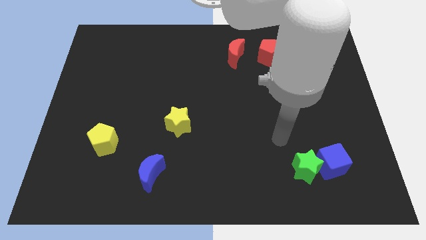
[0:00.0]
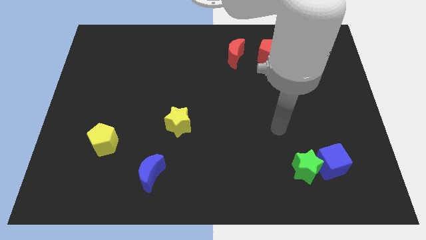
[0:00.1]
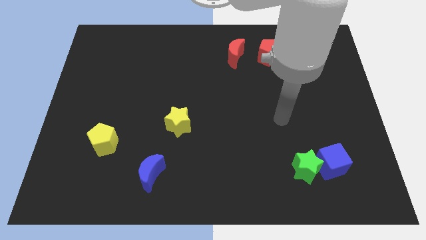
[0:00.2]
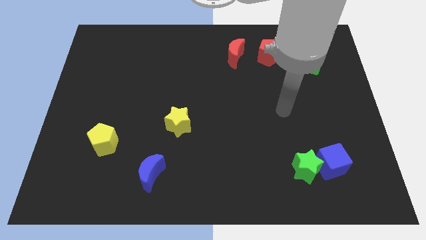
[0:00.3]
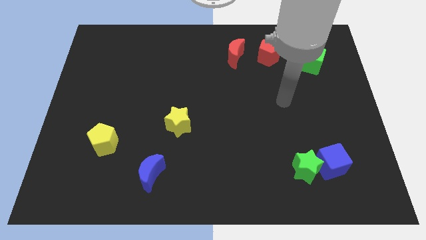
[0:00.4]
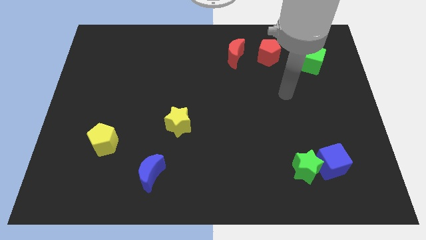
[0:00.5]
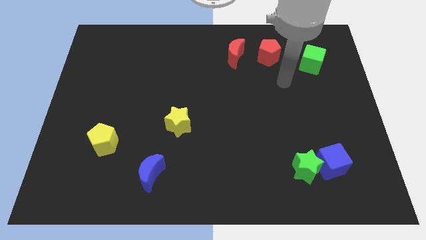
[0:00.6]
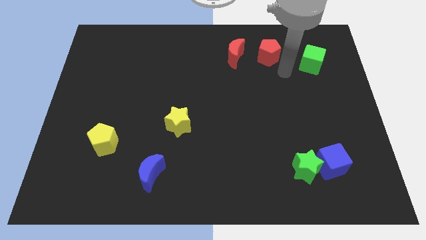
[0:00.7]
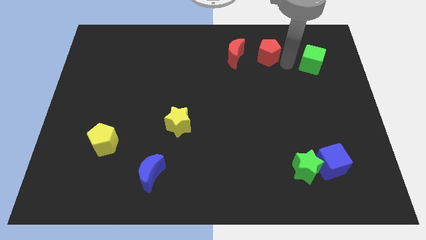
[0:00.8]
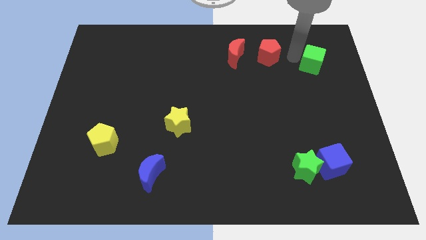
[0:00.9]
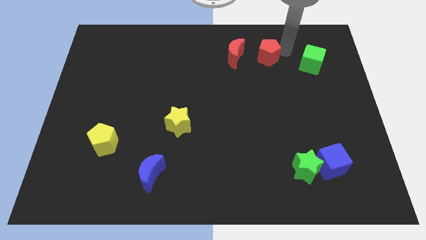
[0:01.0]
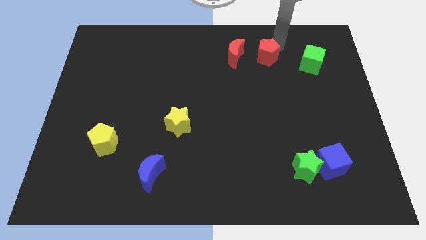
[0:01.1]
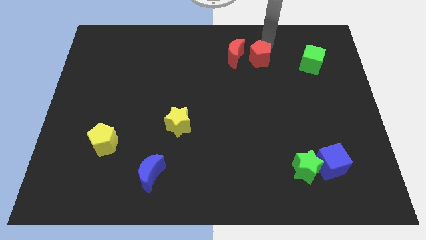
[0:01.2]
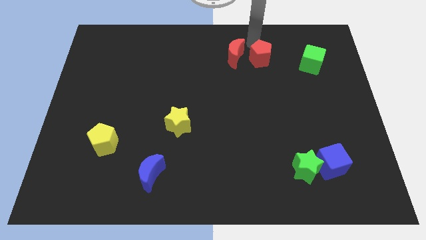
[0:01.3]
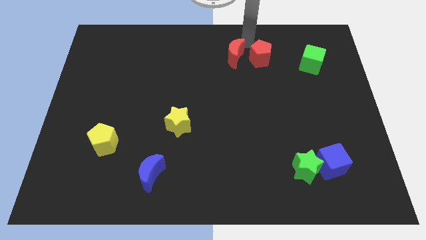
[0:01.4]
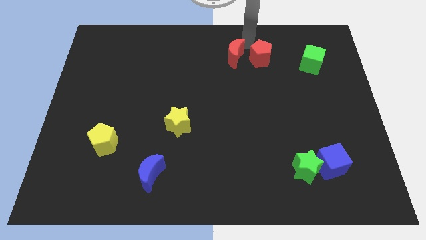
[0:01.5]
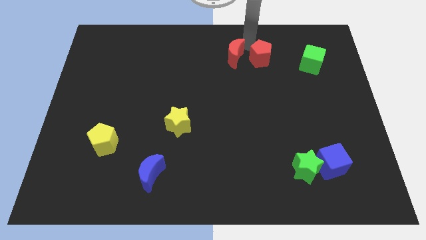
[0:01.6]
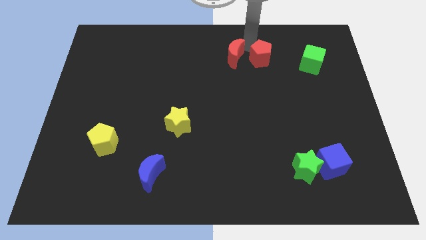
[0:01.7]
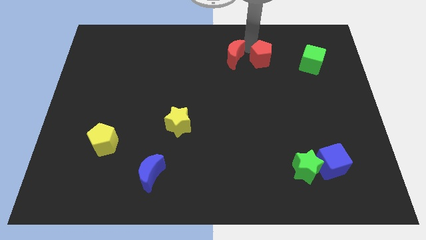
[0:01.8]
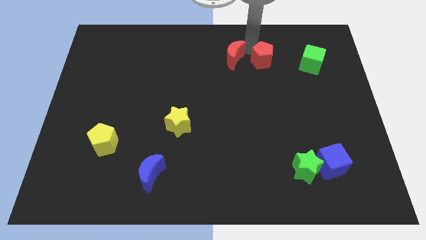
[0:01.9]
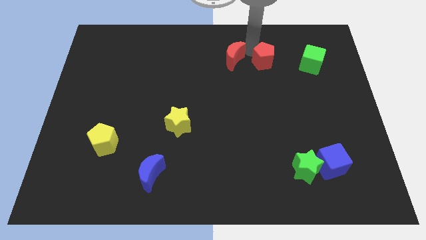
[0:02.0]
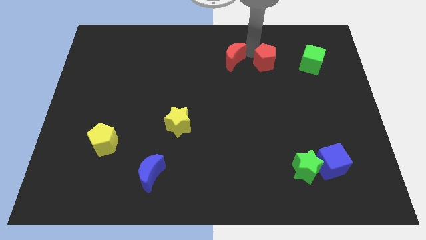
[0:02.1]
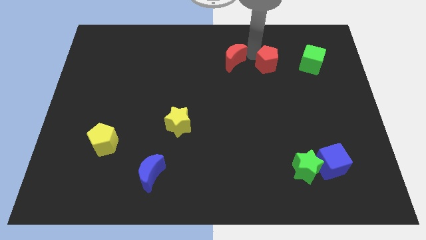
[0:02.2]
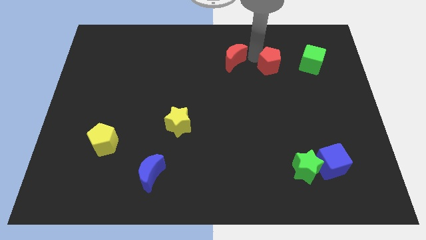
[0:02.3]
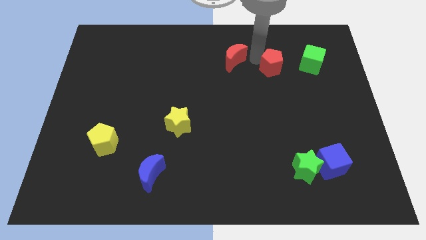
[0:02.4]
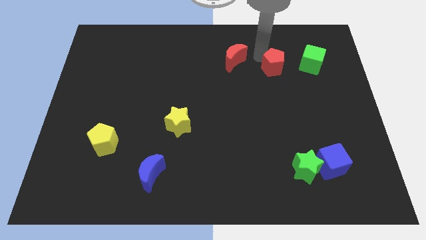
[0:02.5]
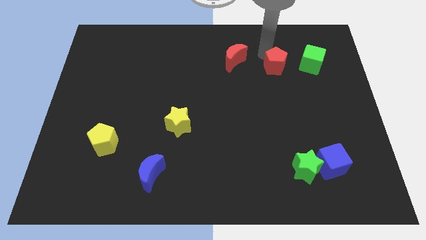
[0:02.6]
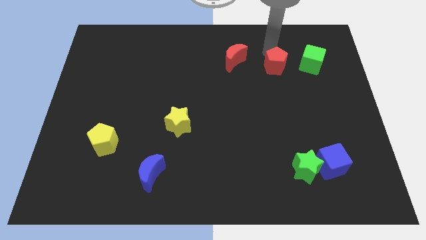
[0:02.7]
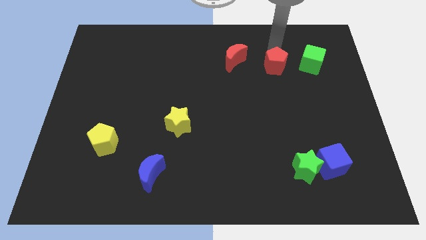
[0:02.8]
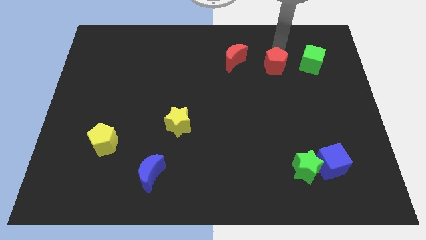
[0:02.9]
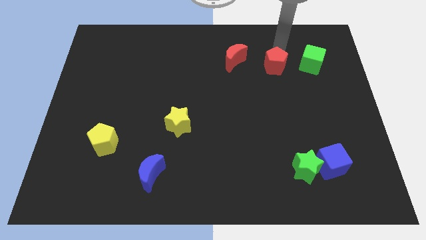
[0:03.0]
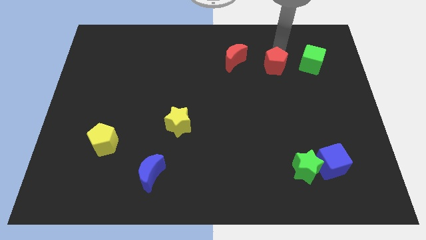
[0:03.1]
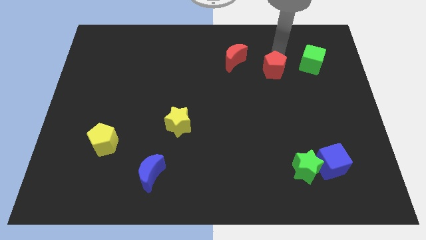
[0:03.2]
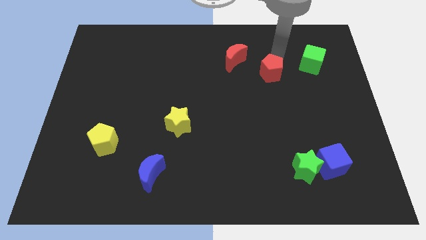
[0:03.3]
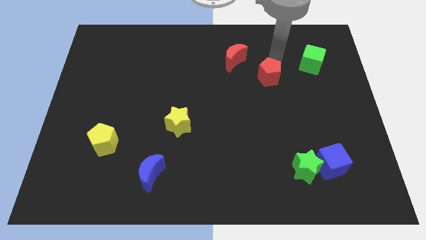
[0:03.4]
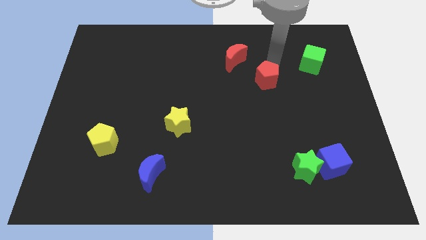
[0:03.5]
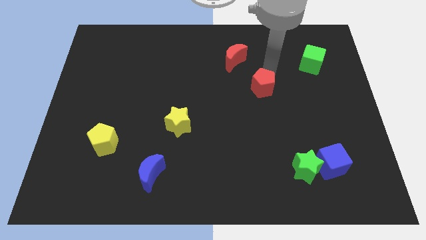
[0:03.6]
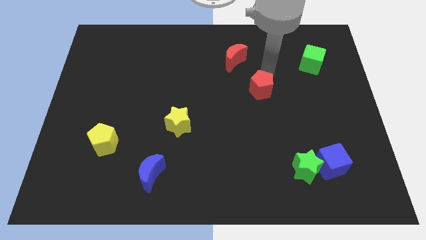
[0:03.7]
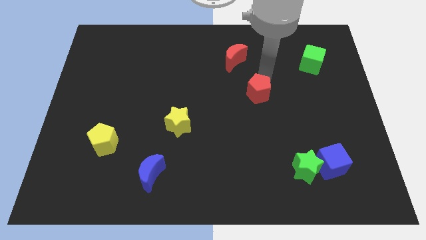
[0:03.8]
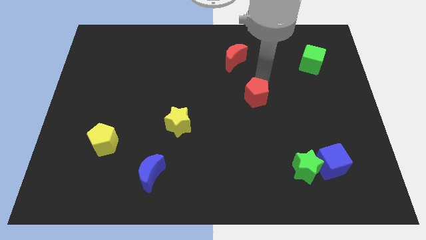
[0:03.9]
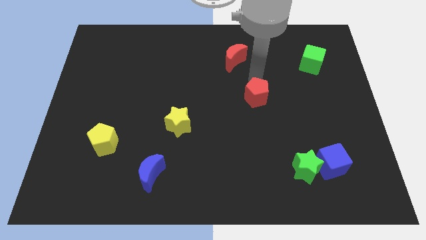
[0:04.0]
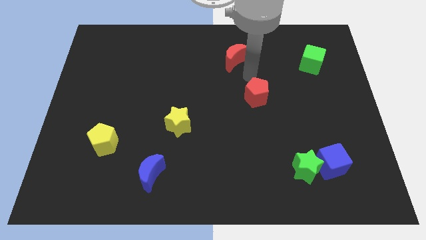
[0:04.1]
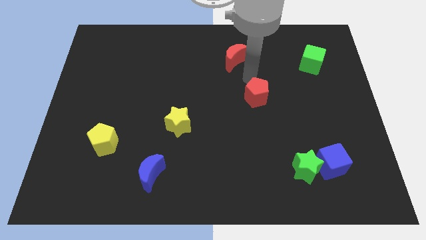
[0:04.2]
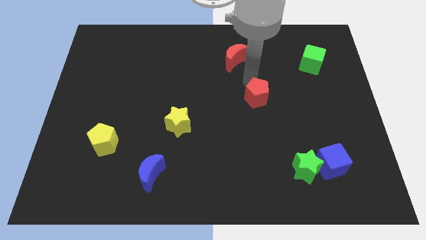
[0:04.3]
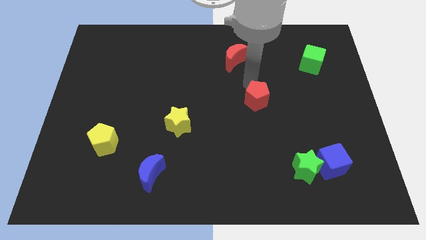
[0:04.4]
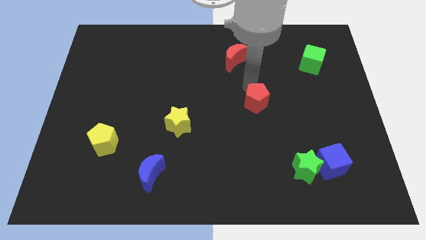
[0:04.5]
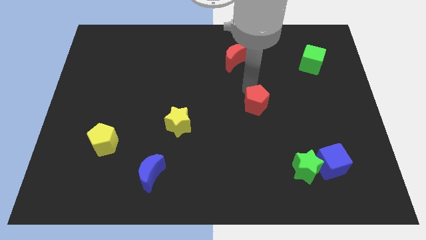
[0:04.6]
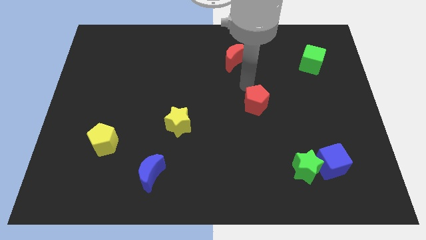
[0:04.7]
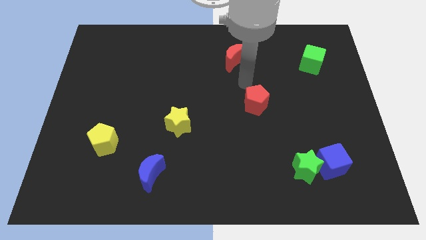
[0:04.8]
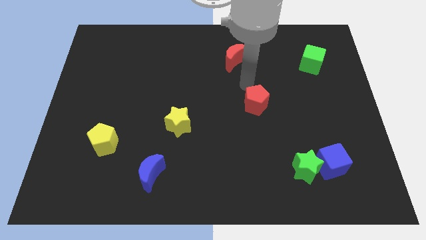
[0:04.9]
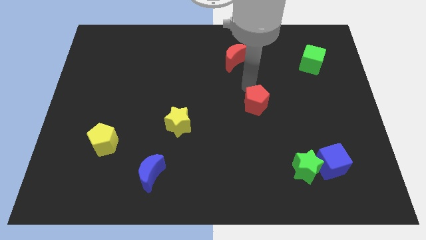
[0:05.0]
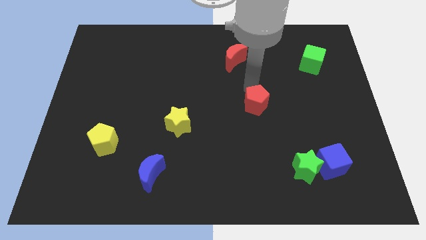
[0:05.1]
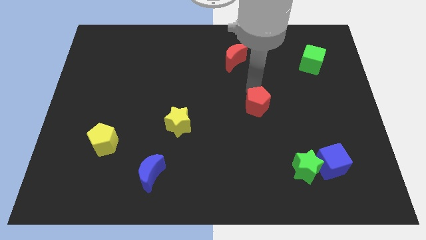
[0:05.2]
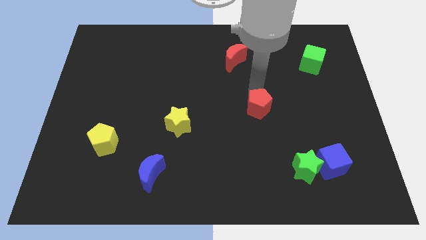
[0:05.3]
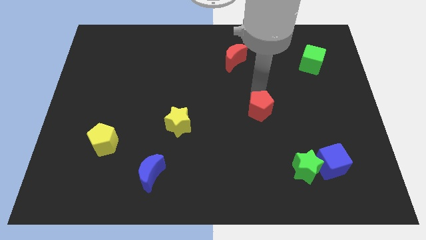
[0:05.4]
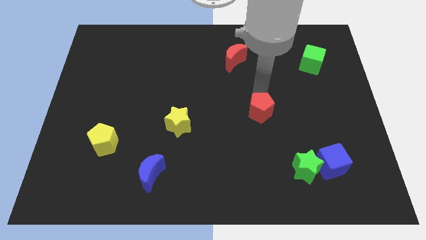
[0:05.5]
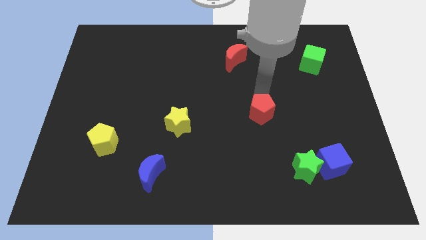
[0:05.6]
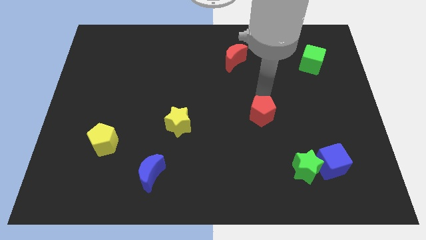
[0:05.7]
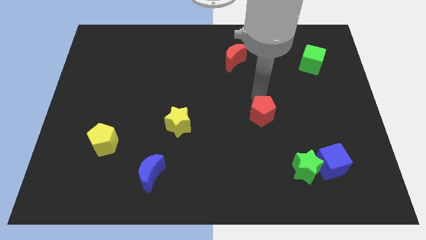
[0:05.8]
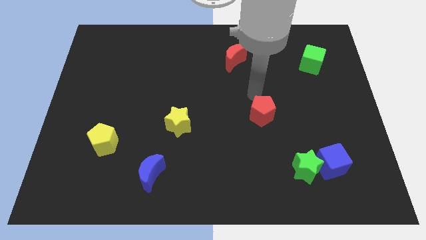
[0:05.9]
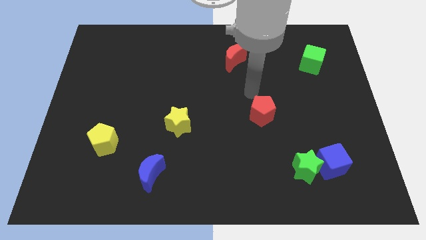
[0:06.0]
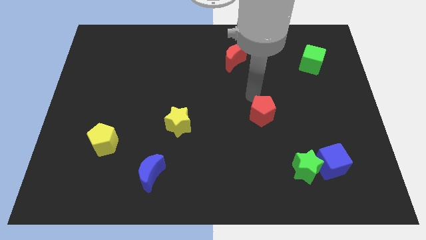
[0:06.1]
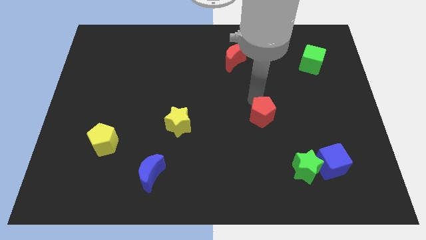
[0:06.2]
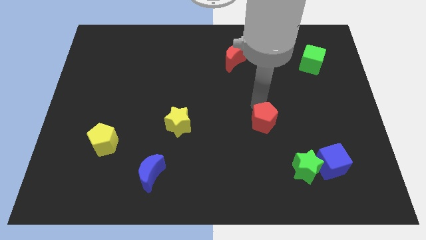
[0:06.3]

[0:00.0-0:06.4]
slide the red pentagon downwards

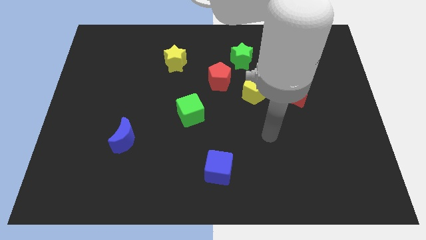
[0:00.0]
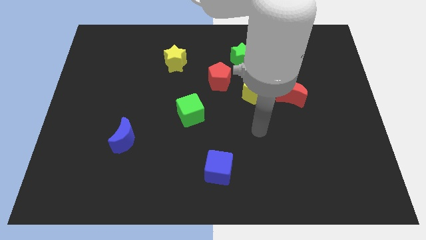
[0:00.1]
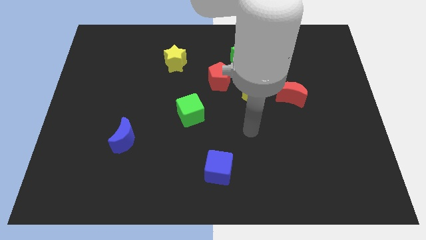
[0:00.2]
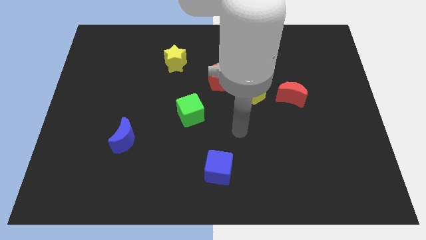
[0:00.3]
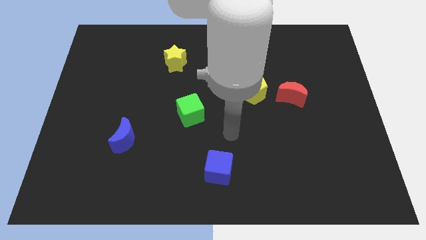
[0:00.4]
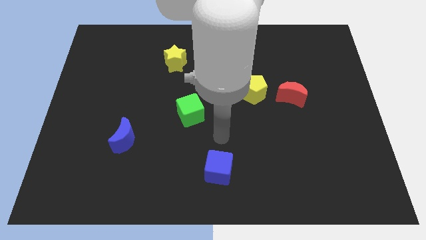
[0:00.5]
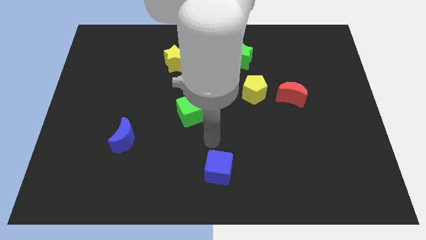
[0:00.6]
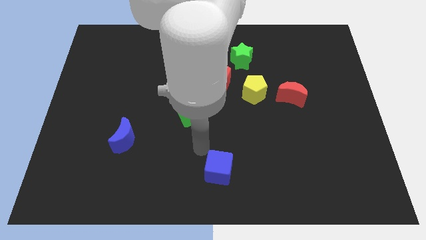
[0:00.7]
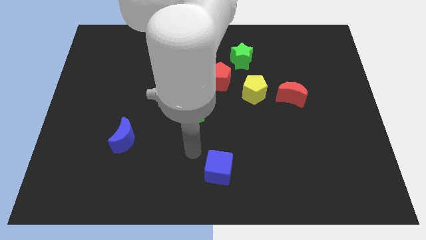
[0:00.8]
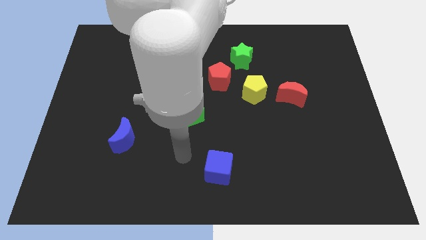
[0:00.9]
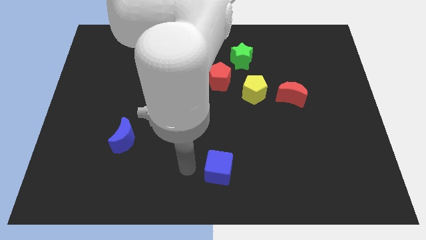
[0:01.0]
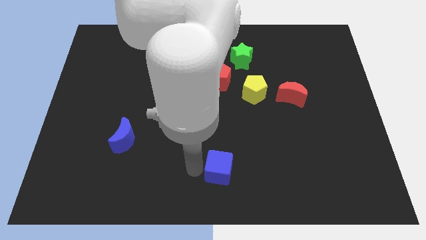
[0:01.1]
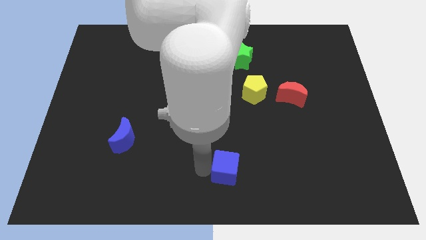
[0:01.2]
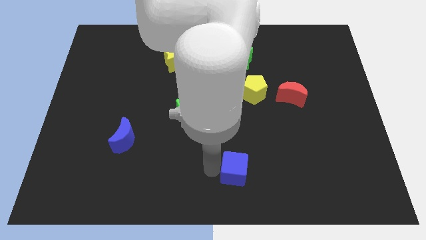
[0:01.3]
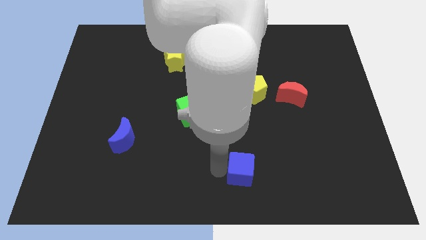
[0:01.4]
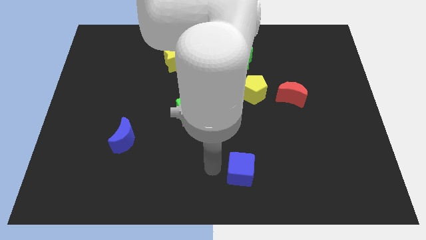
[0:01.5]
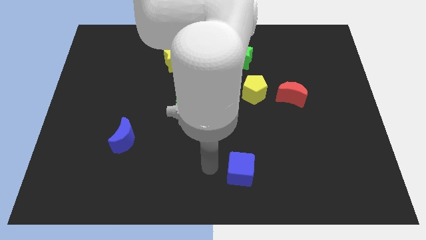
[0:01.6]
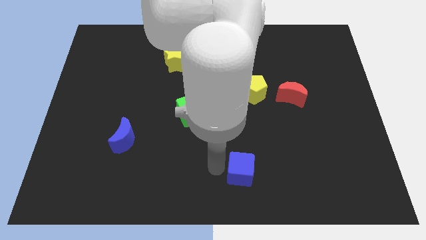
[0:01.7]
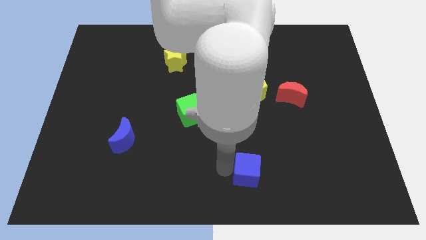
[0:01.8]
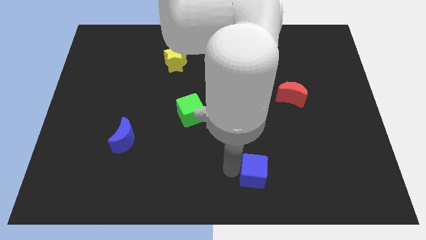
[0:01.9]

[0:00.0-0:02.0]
slightly slide the blue cube to the right

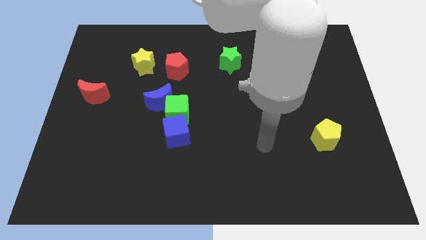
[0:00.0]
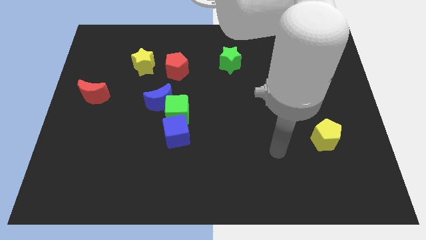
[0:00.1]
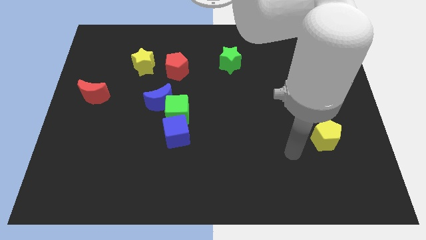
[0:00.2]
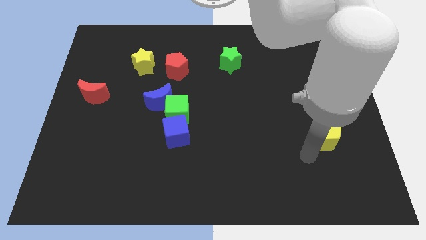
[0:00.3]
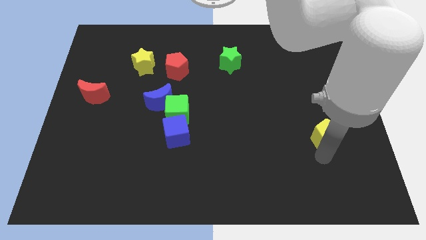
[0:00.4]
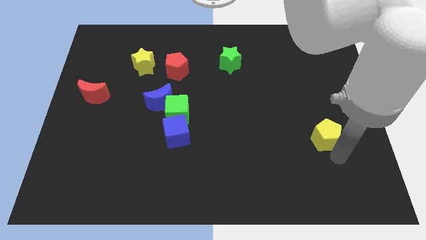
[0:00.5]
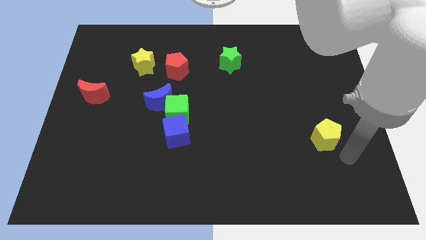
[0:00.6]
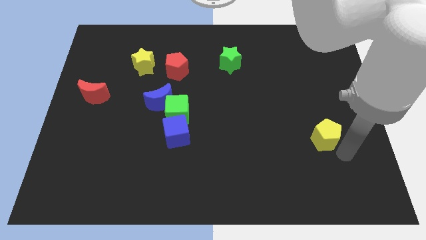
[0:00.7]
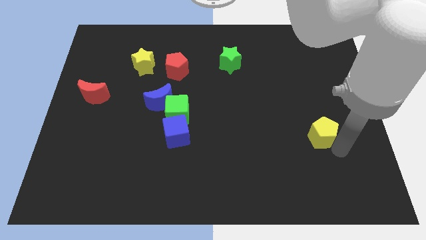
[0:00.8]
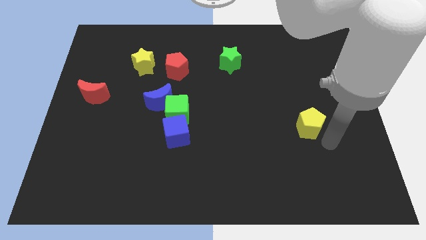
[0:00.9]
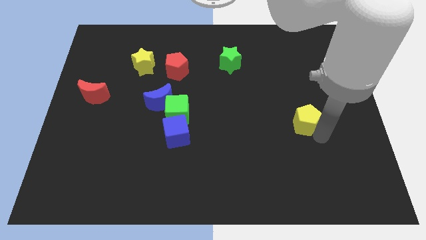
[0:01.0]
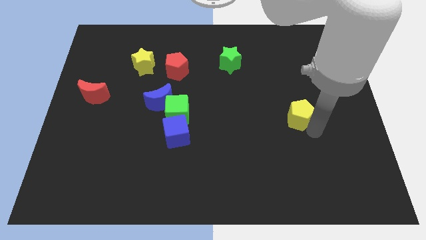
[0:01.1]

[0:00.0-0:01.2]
slightly move the yellow pentagon diagonally up and to the left
